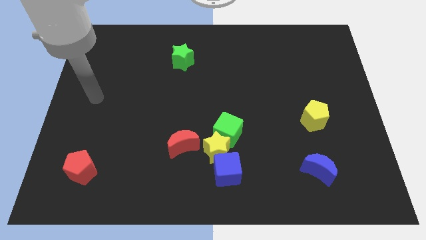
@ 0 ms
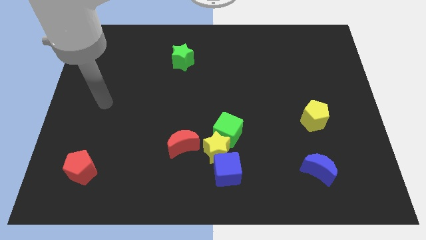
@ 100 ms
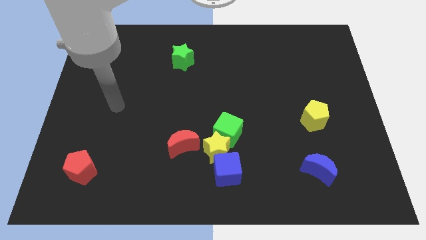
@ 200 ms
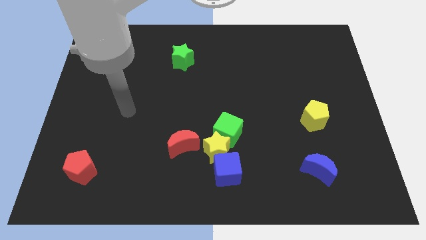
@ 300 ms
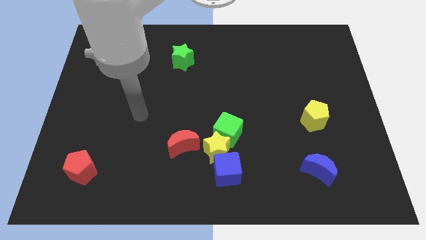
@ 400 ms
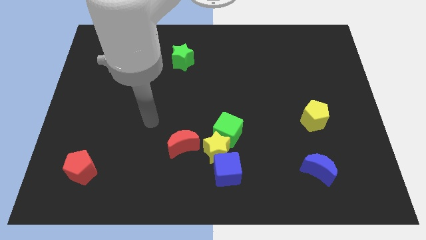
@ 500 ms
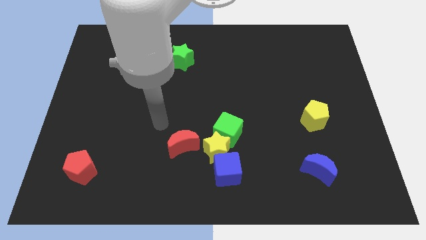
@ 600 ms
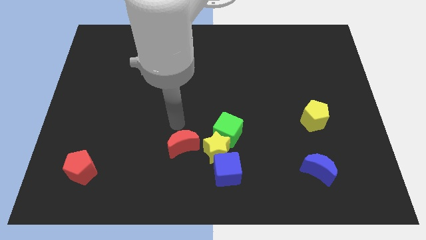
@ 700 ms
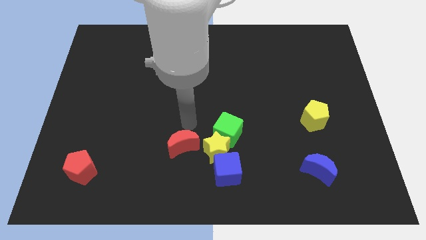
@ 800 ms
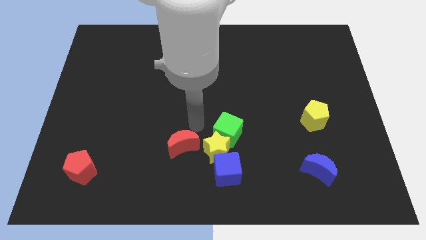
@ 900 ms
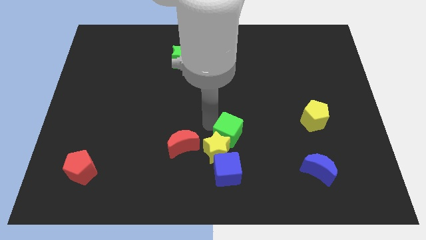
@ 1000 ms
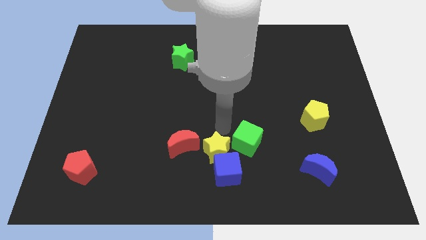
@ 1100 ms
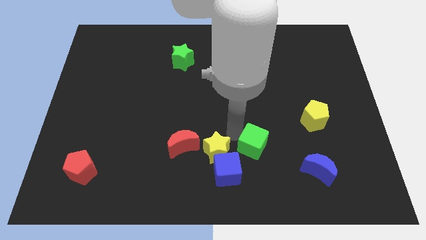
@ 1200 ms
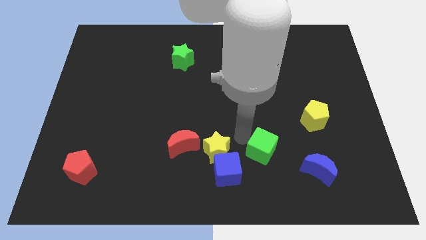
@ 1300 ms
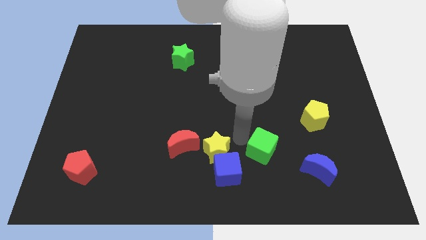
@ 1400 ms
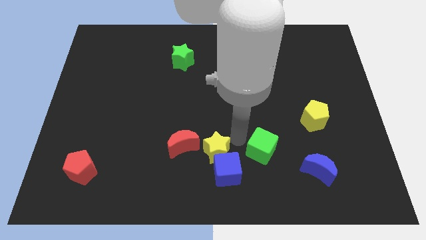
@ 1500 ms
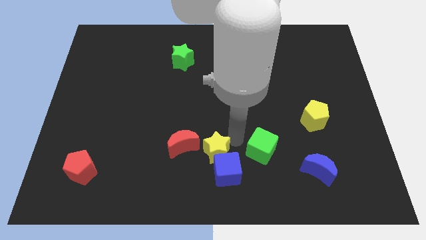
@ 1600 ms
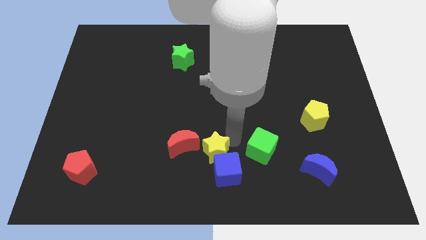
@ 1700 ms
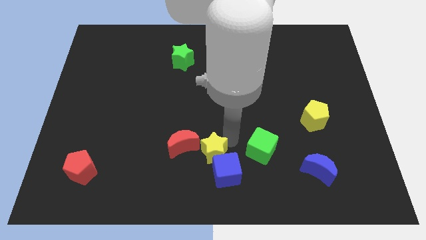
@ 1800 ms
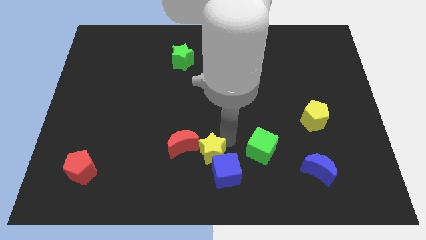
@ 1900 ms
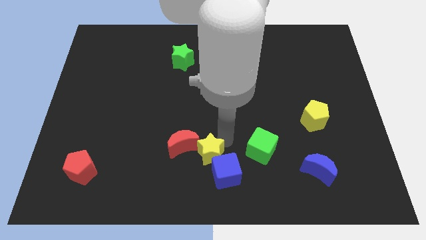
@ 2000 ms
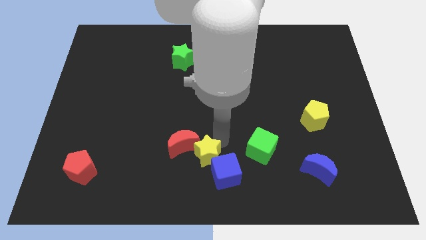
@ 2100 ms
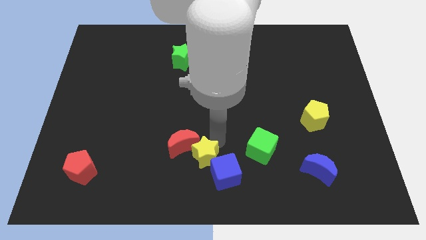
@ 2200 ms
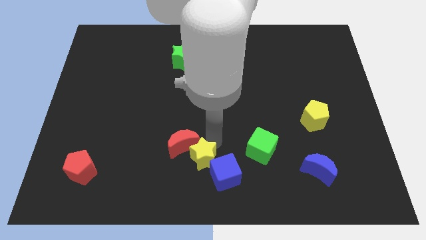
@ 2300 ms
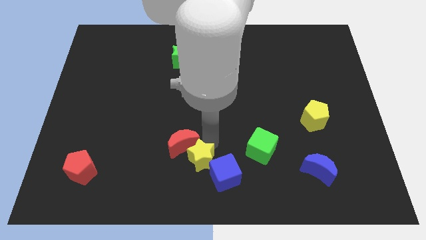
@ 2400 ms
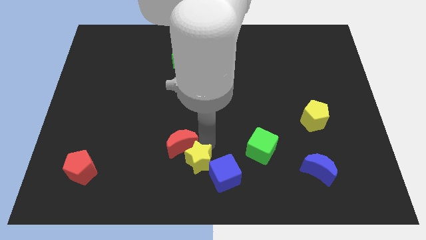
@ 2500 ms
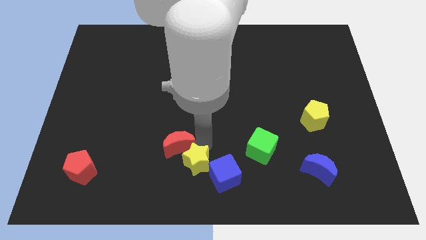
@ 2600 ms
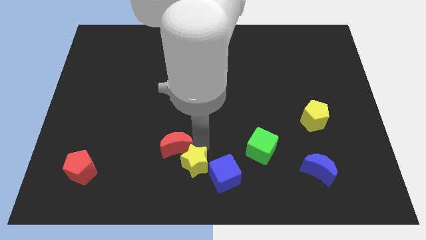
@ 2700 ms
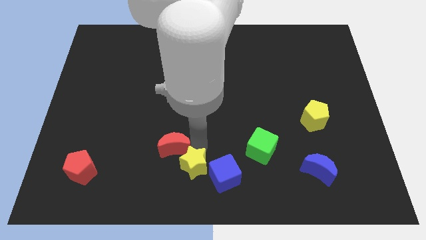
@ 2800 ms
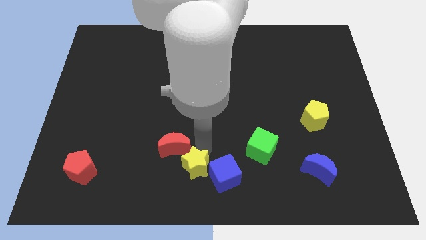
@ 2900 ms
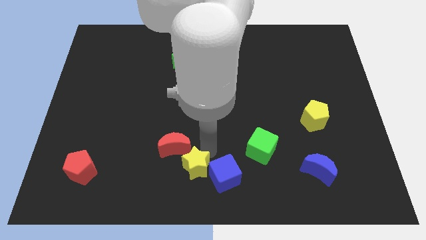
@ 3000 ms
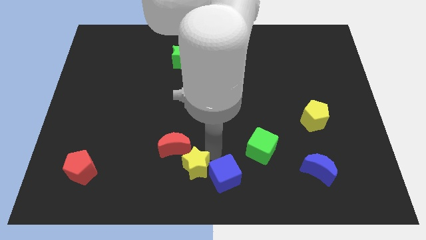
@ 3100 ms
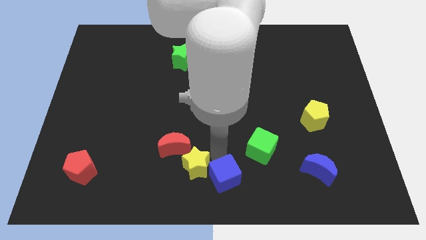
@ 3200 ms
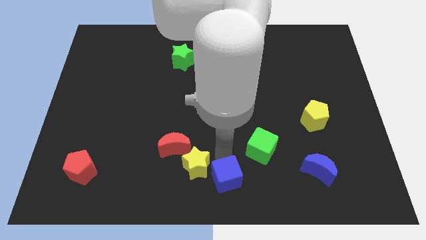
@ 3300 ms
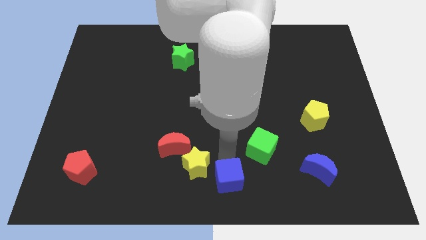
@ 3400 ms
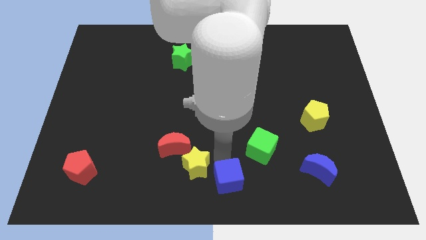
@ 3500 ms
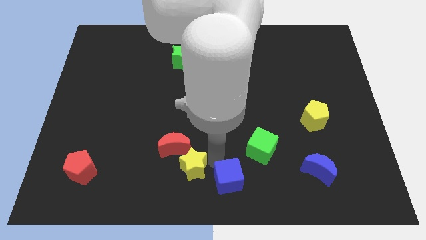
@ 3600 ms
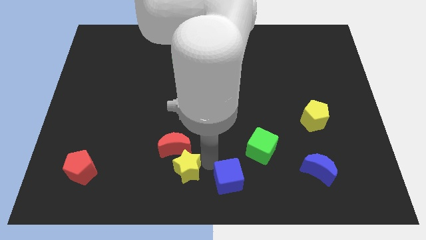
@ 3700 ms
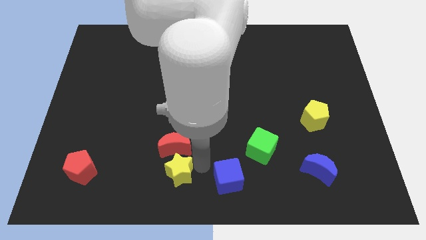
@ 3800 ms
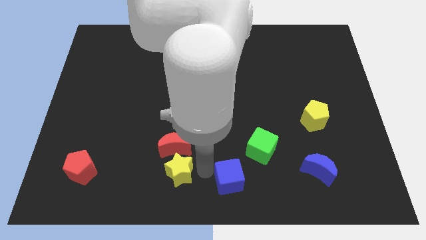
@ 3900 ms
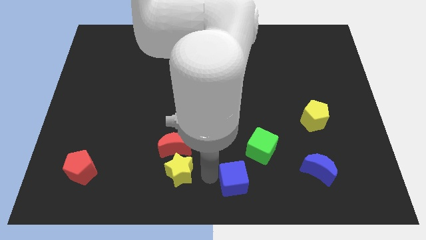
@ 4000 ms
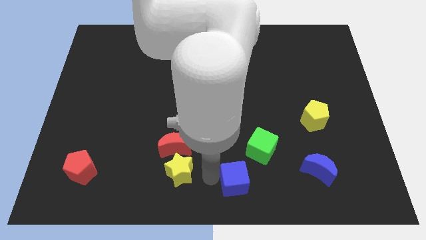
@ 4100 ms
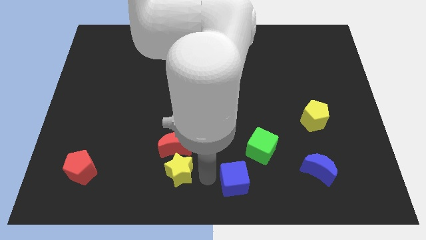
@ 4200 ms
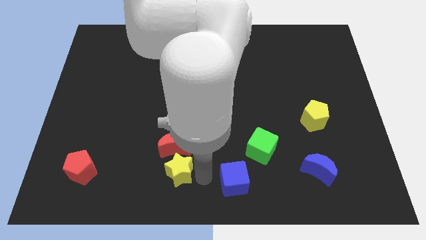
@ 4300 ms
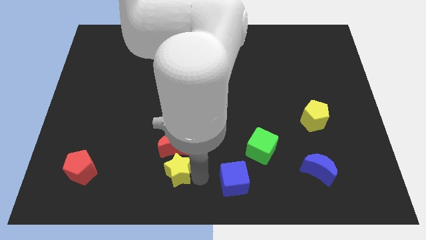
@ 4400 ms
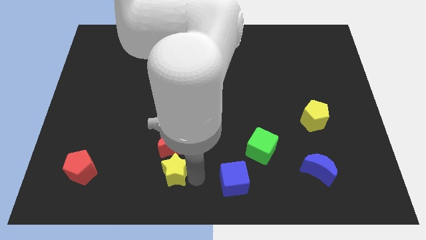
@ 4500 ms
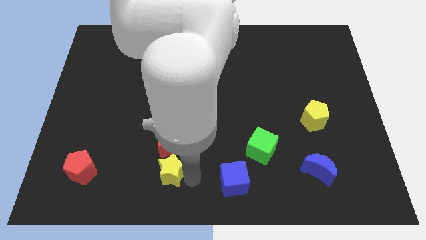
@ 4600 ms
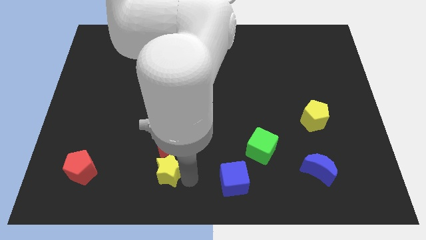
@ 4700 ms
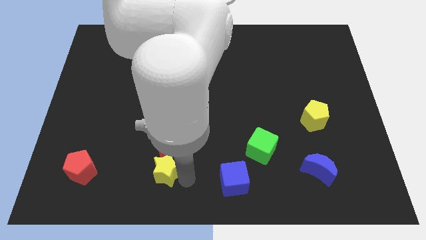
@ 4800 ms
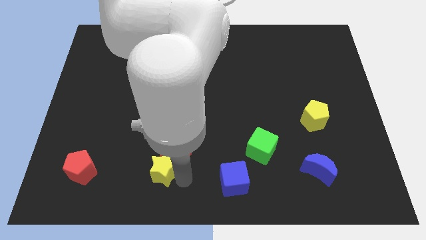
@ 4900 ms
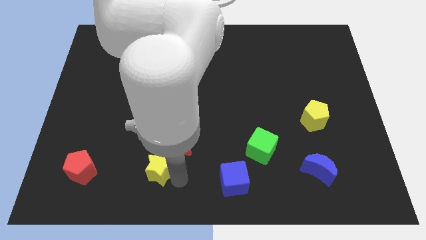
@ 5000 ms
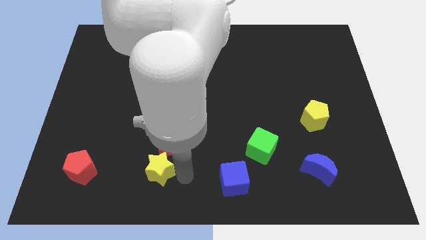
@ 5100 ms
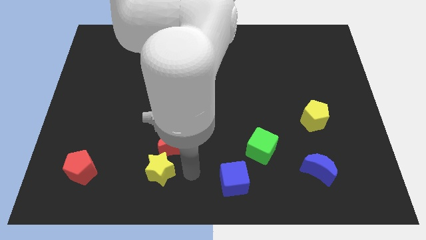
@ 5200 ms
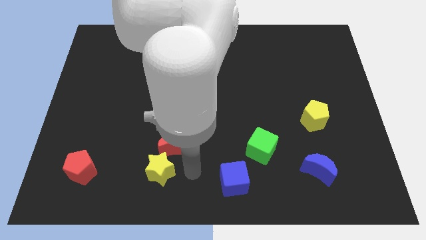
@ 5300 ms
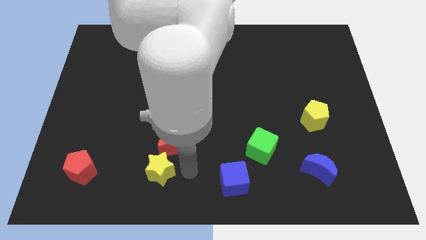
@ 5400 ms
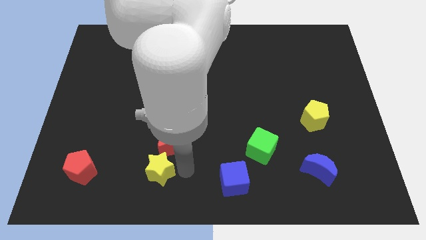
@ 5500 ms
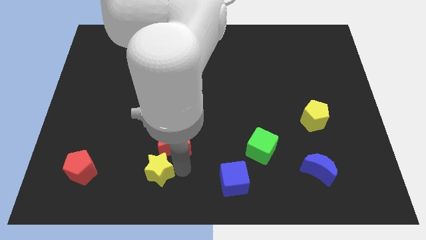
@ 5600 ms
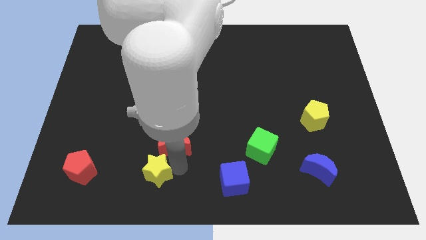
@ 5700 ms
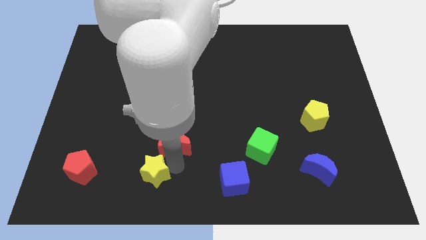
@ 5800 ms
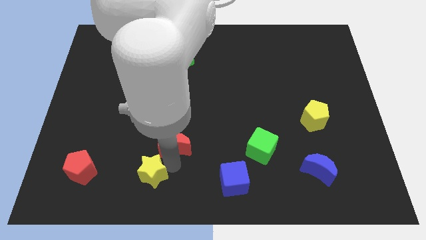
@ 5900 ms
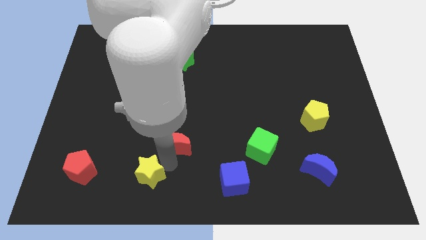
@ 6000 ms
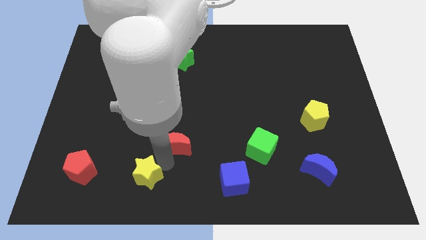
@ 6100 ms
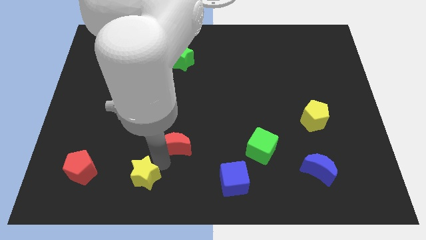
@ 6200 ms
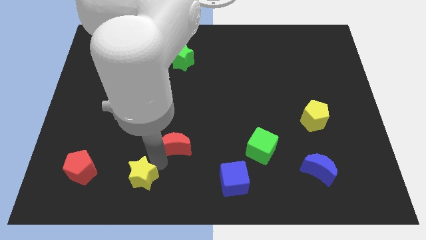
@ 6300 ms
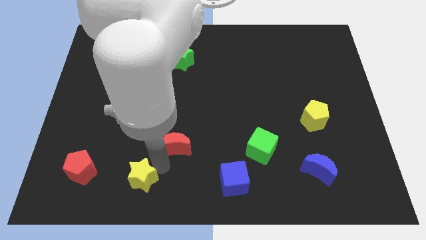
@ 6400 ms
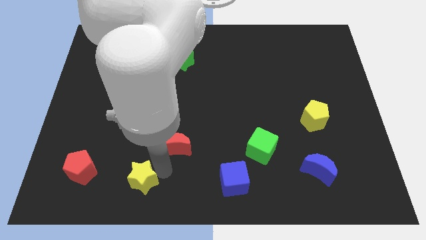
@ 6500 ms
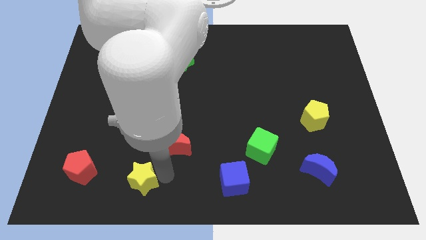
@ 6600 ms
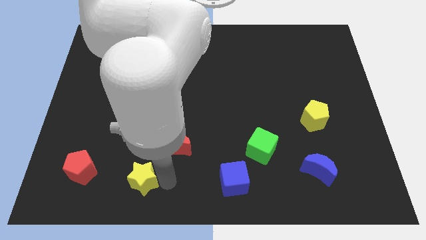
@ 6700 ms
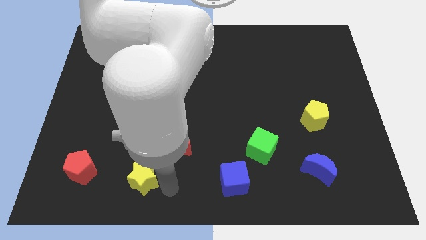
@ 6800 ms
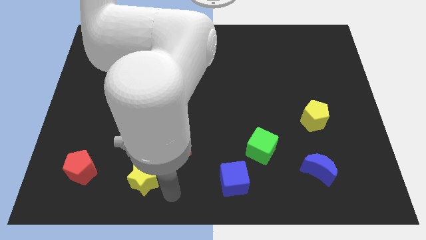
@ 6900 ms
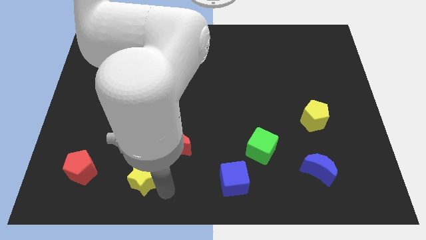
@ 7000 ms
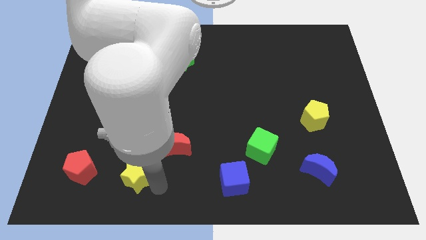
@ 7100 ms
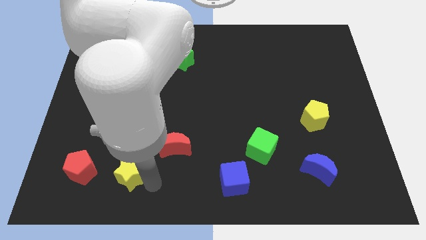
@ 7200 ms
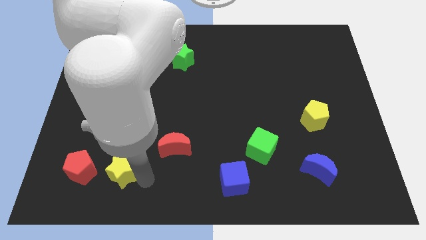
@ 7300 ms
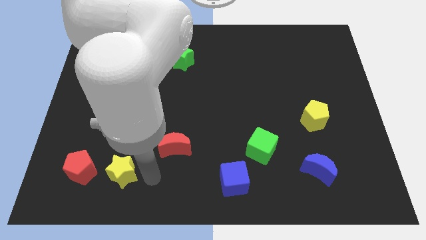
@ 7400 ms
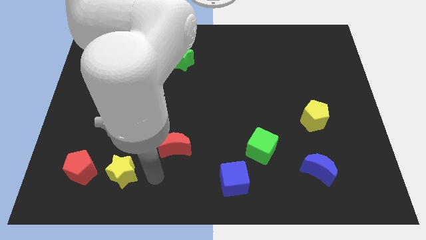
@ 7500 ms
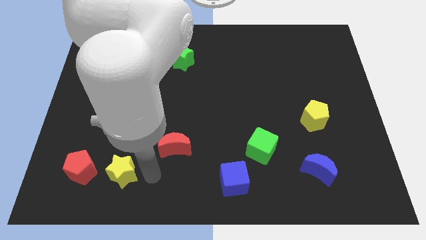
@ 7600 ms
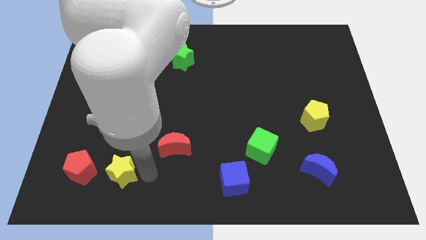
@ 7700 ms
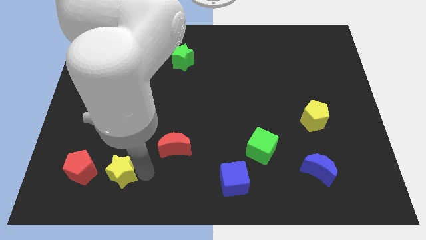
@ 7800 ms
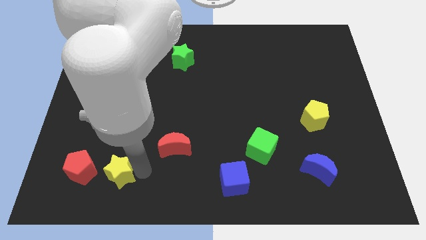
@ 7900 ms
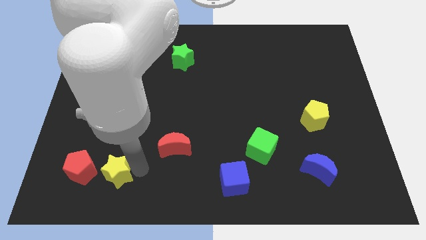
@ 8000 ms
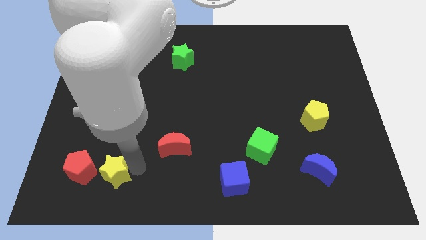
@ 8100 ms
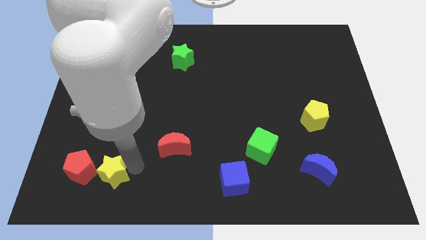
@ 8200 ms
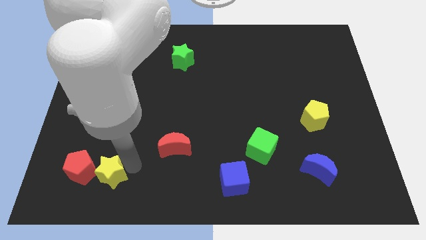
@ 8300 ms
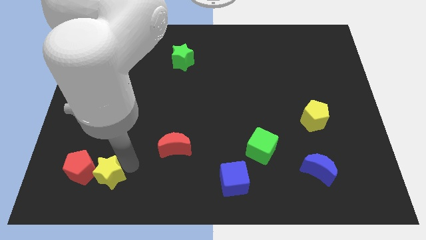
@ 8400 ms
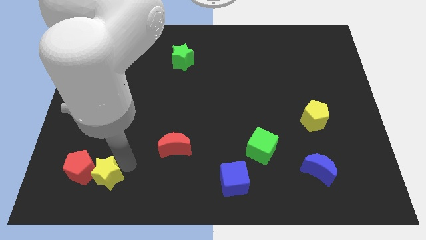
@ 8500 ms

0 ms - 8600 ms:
put the yellow star towards the red pentagon
